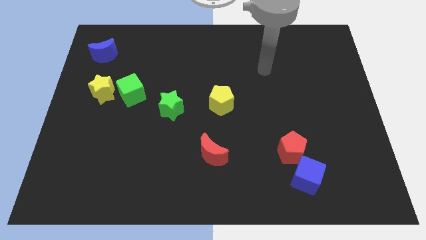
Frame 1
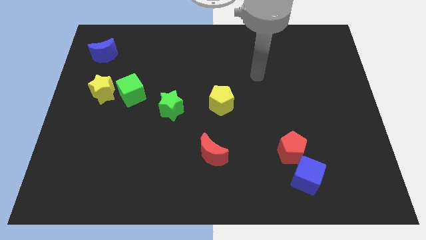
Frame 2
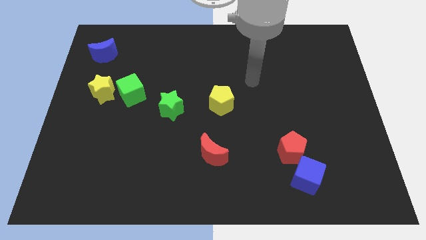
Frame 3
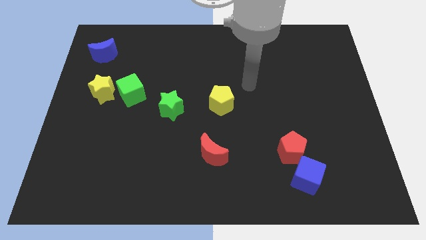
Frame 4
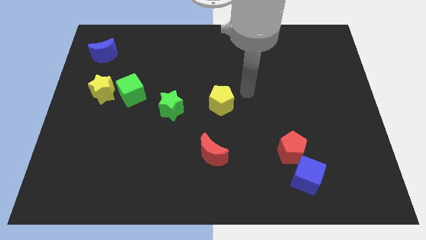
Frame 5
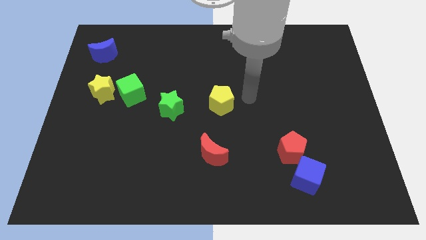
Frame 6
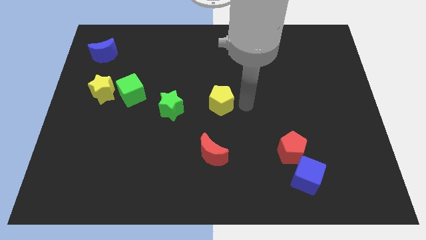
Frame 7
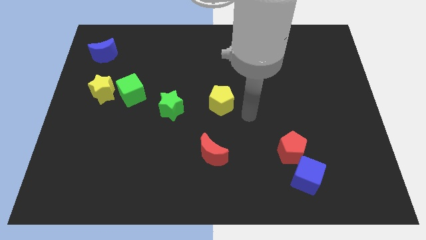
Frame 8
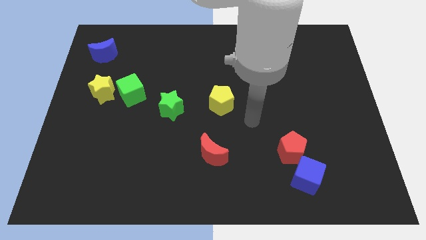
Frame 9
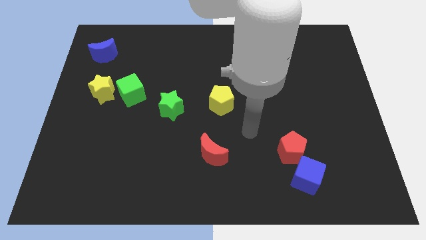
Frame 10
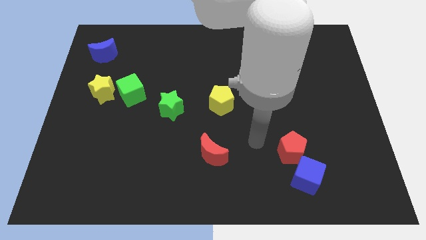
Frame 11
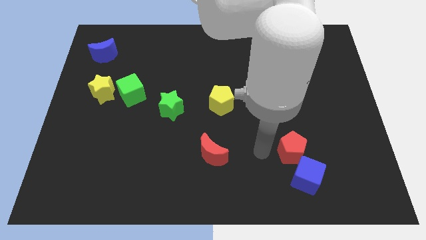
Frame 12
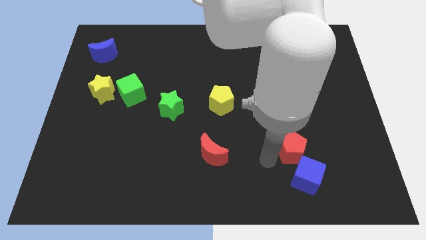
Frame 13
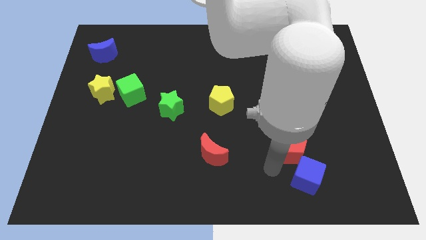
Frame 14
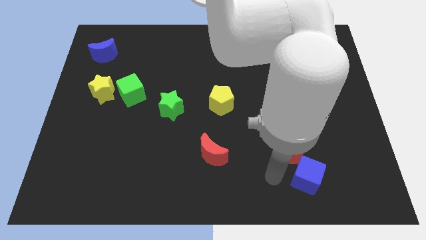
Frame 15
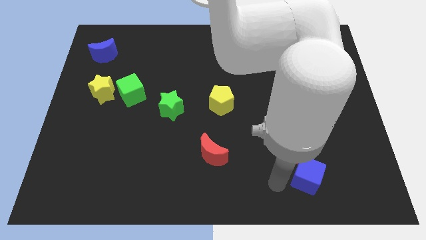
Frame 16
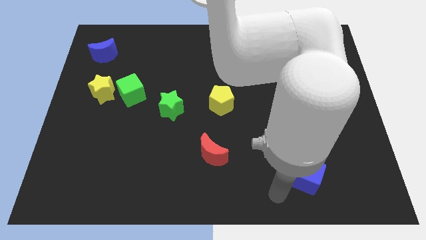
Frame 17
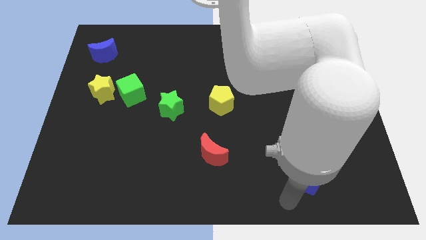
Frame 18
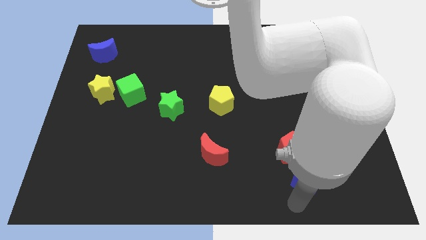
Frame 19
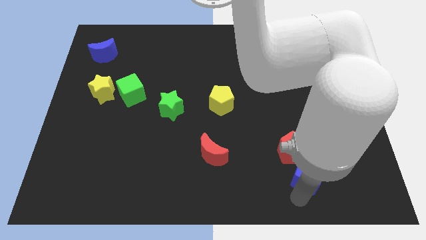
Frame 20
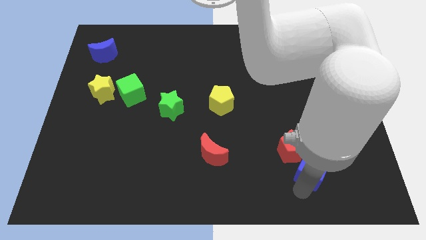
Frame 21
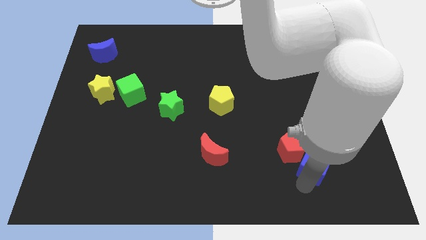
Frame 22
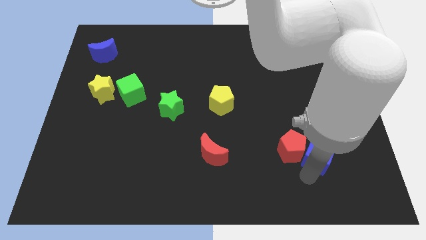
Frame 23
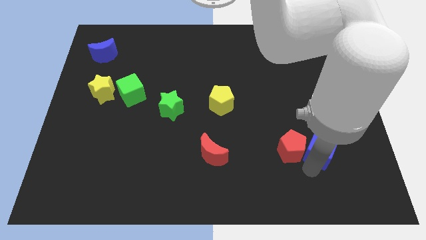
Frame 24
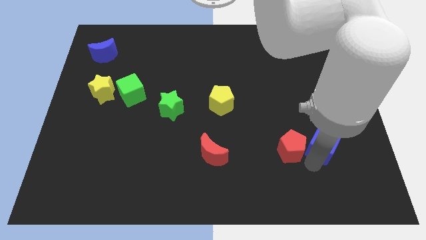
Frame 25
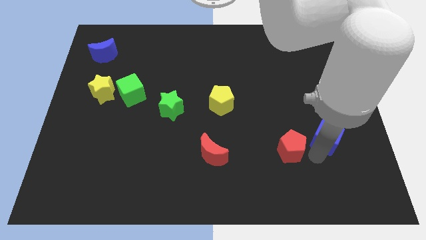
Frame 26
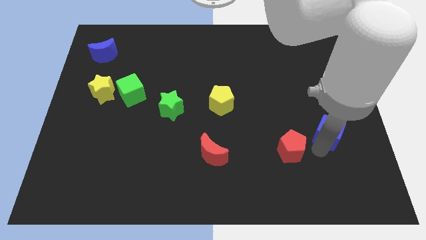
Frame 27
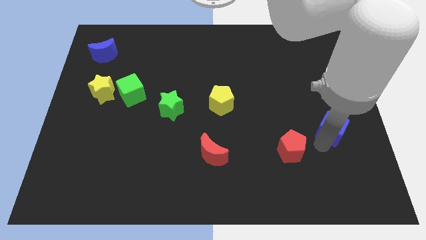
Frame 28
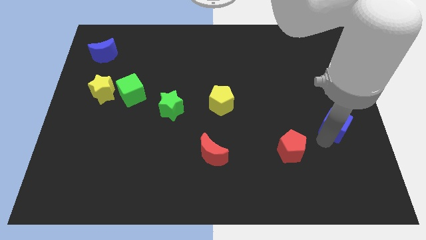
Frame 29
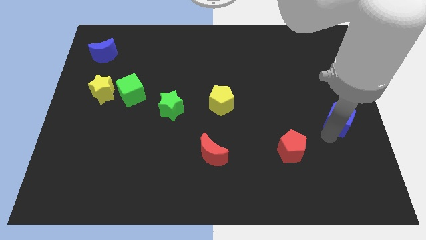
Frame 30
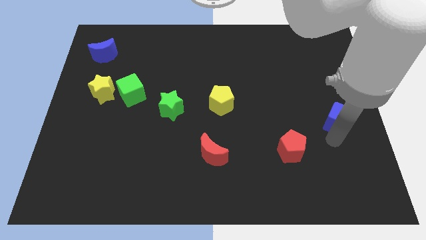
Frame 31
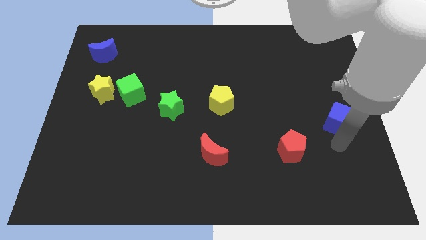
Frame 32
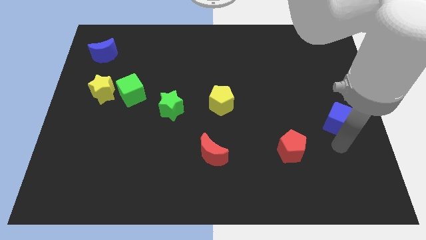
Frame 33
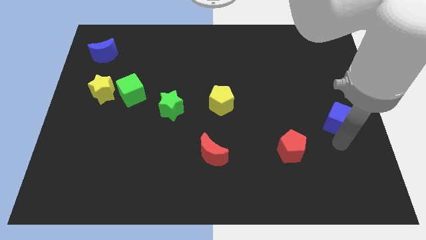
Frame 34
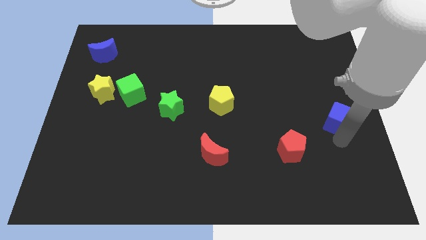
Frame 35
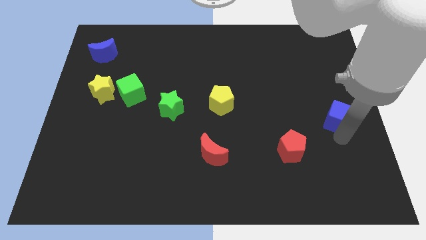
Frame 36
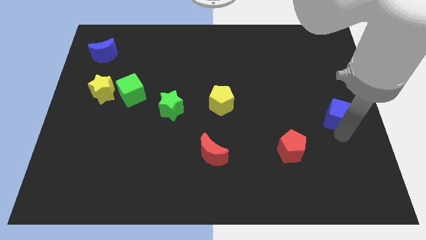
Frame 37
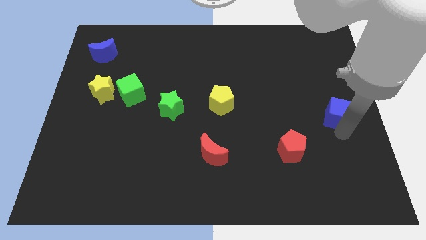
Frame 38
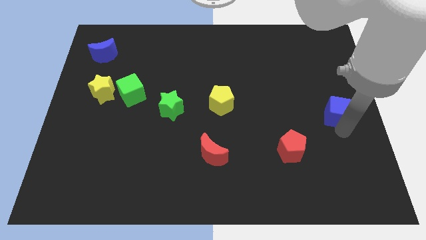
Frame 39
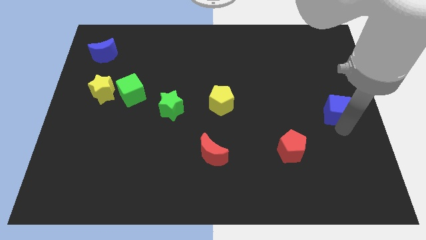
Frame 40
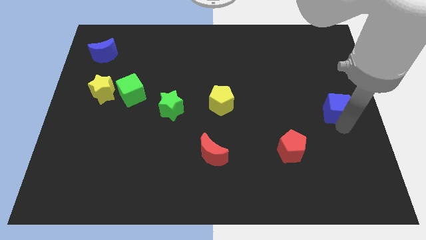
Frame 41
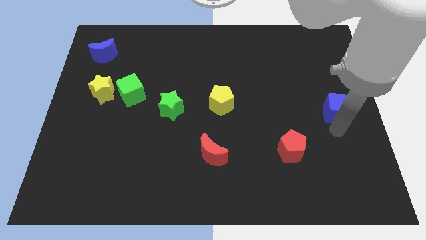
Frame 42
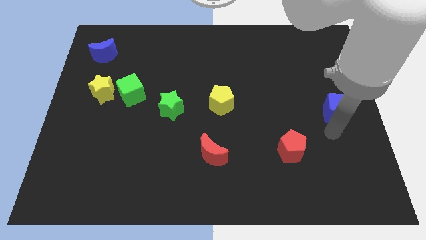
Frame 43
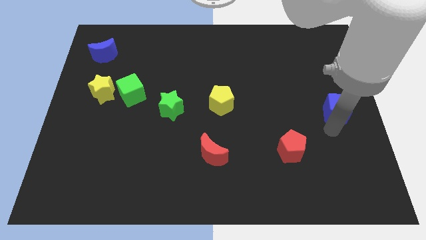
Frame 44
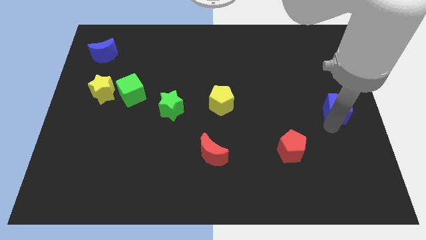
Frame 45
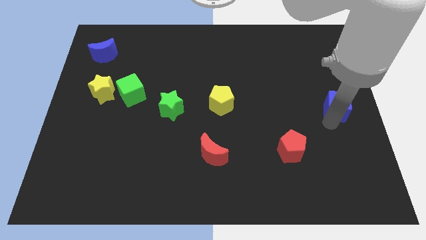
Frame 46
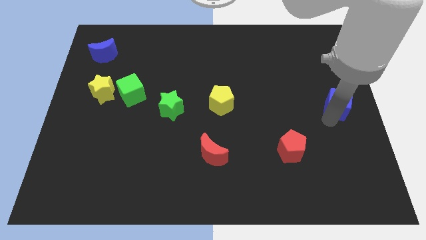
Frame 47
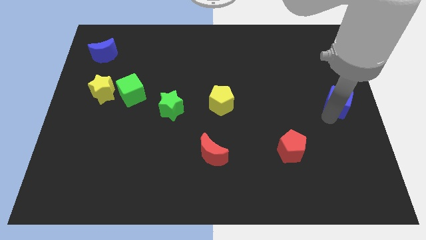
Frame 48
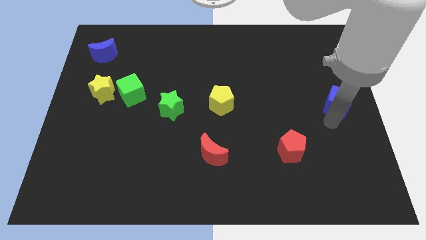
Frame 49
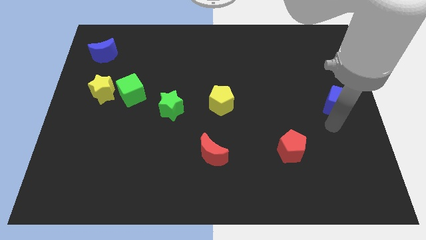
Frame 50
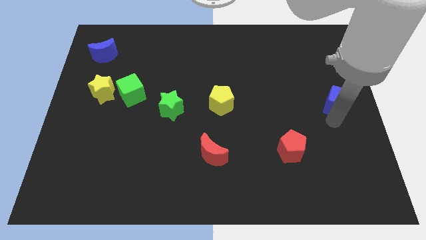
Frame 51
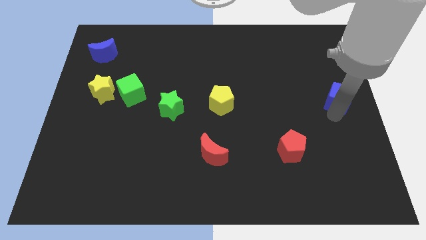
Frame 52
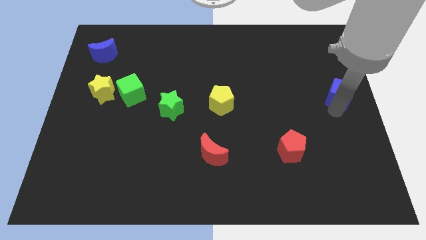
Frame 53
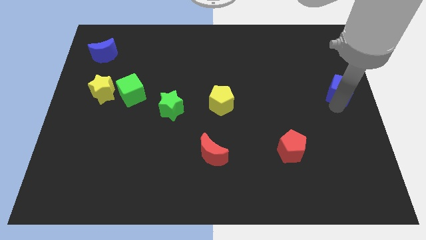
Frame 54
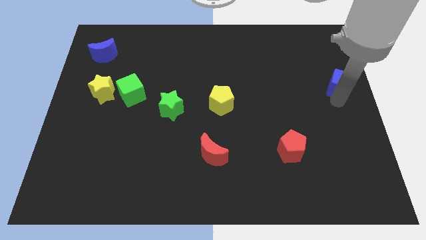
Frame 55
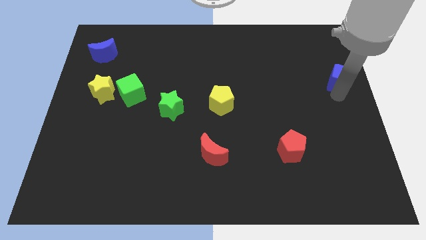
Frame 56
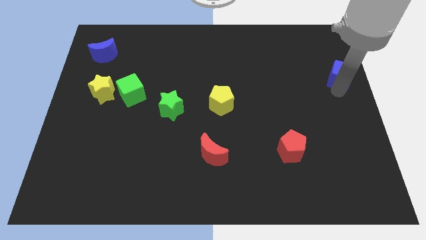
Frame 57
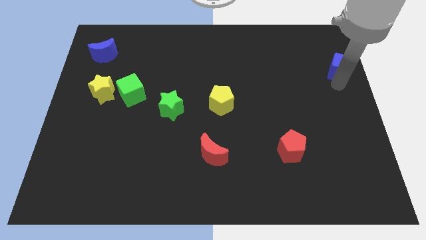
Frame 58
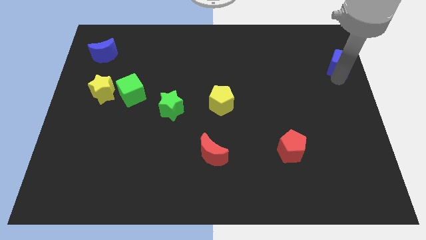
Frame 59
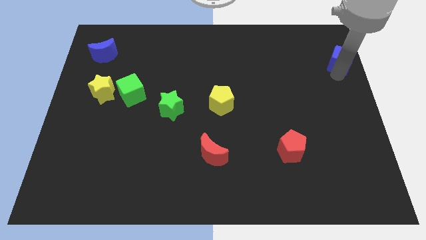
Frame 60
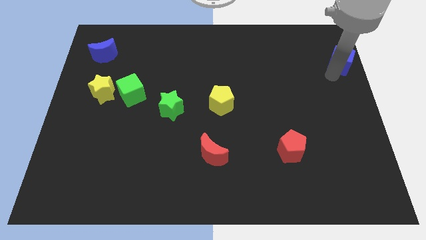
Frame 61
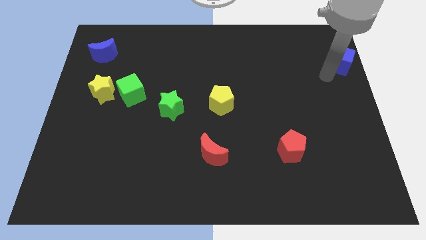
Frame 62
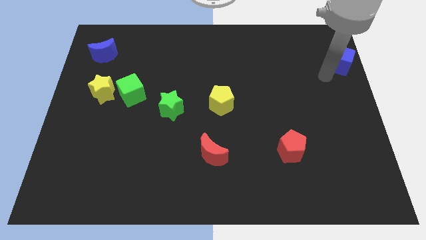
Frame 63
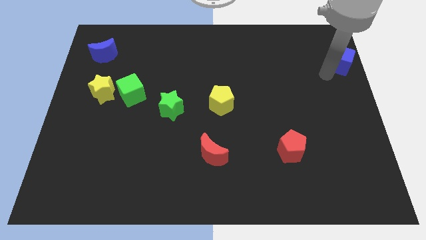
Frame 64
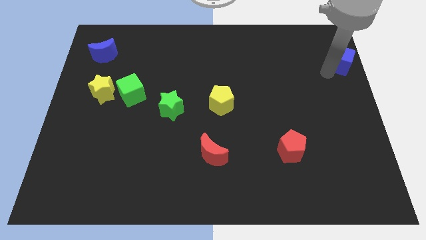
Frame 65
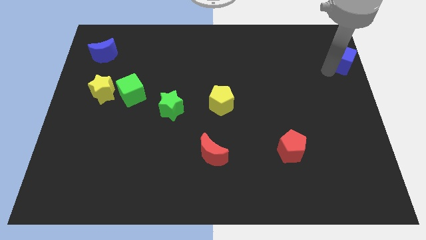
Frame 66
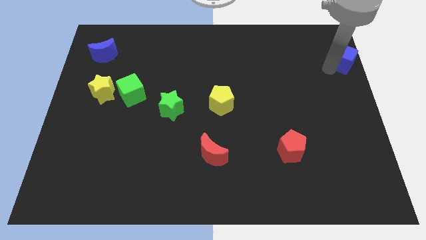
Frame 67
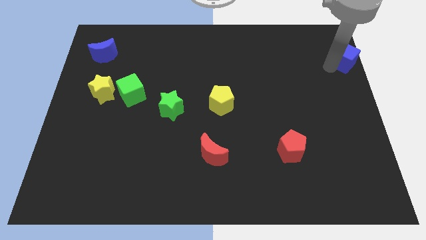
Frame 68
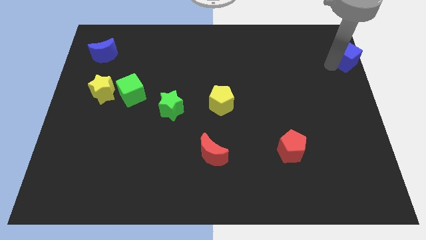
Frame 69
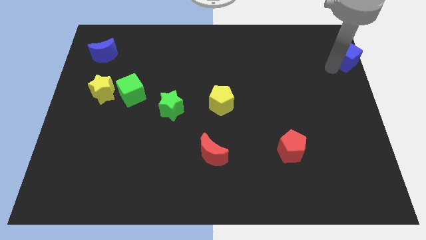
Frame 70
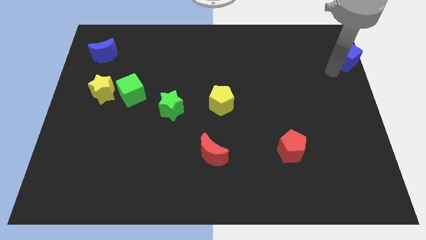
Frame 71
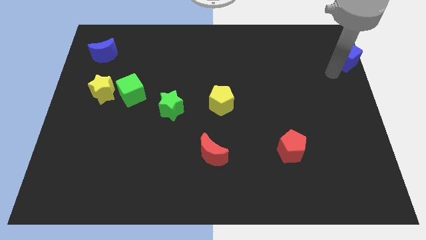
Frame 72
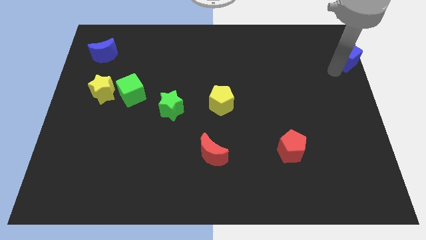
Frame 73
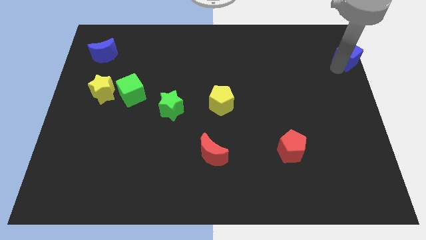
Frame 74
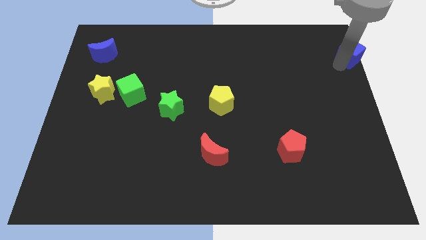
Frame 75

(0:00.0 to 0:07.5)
put the blue cube to the top right
